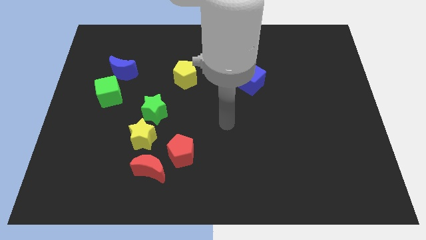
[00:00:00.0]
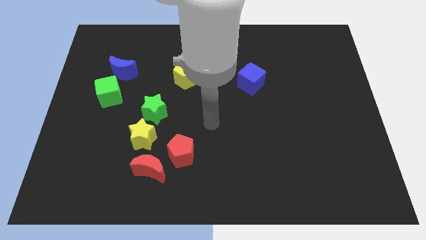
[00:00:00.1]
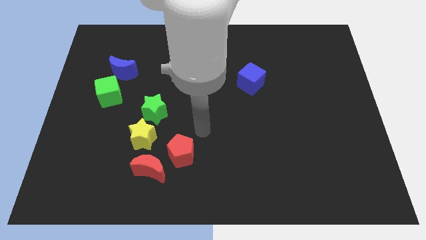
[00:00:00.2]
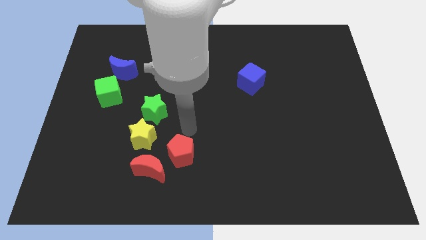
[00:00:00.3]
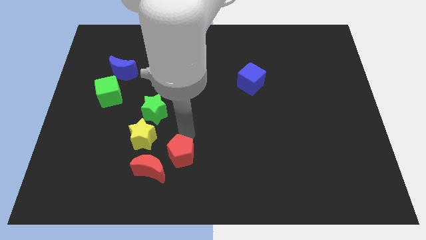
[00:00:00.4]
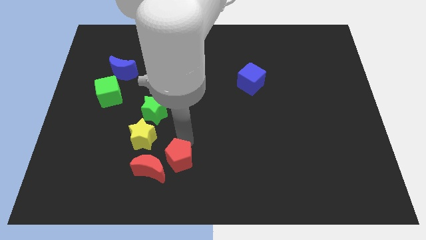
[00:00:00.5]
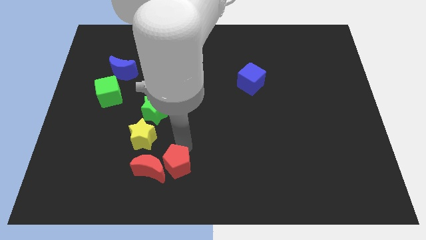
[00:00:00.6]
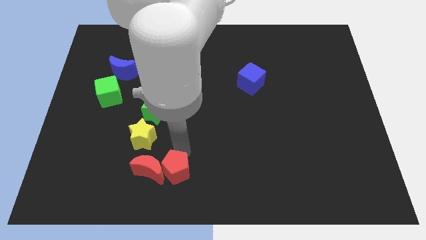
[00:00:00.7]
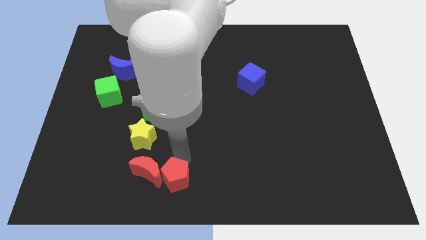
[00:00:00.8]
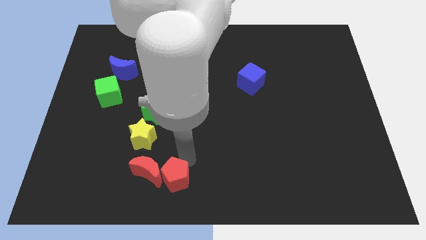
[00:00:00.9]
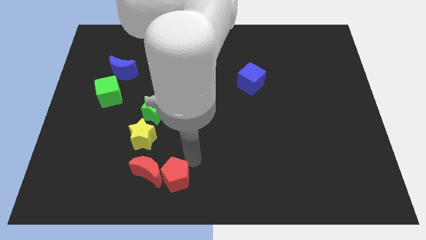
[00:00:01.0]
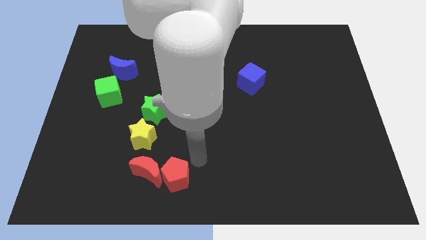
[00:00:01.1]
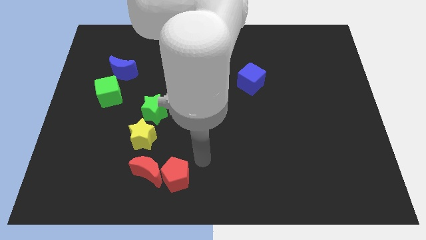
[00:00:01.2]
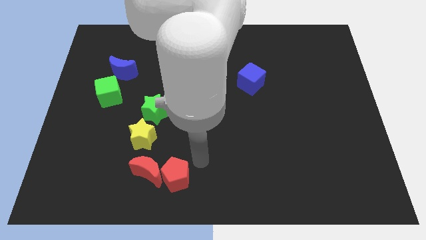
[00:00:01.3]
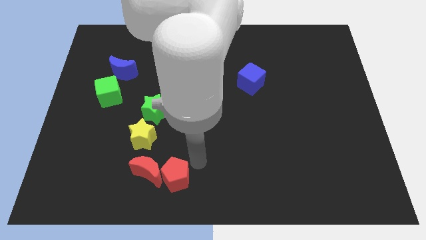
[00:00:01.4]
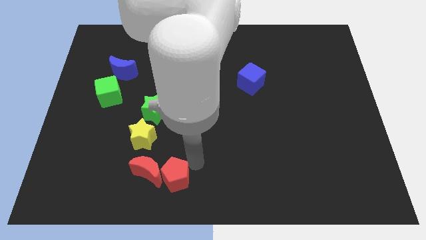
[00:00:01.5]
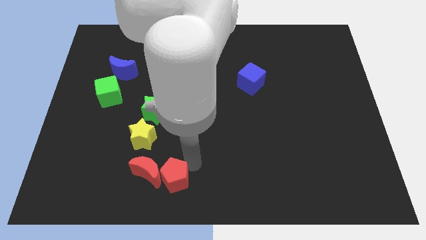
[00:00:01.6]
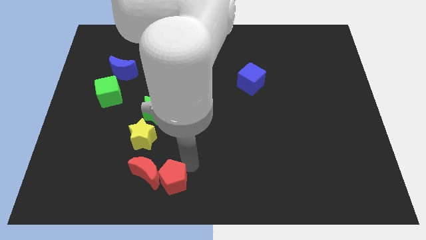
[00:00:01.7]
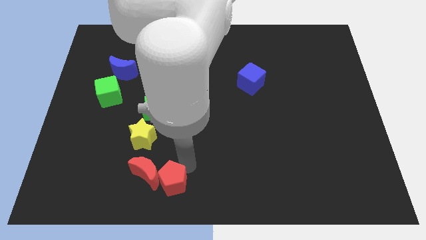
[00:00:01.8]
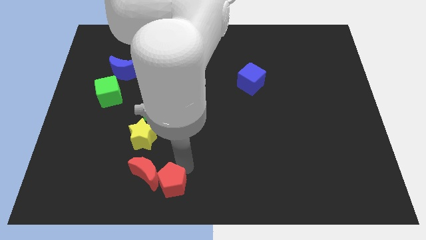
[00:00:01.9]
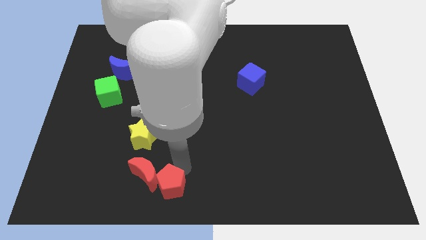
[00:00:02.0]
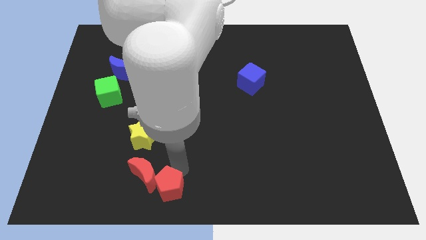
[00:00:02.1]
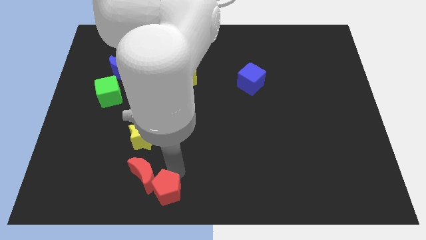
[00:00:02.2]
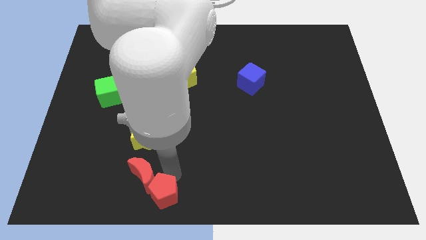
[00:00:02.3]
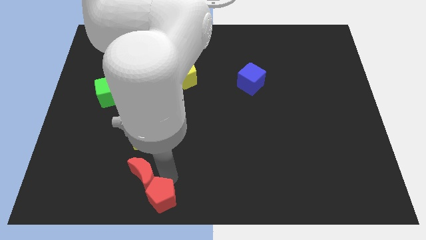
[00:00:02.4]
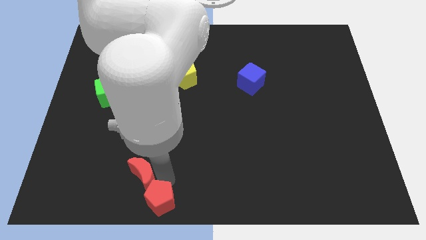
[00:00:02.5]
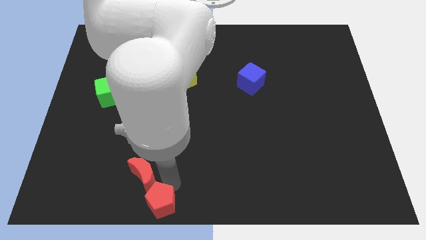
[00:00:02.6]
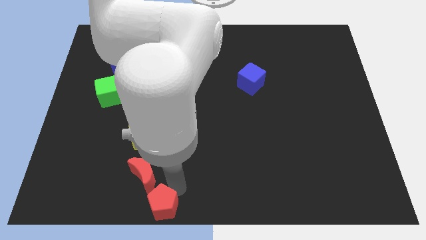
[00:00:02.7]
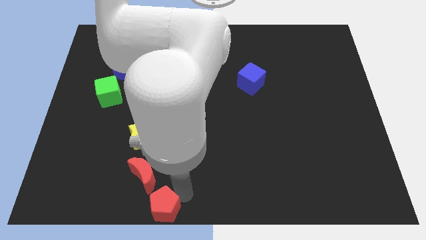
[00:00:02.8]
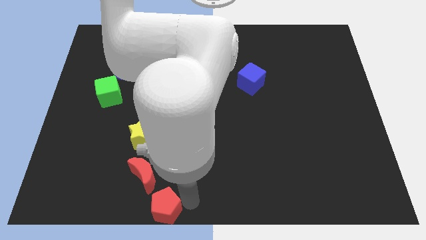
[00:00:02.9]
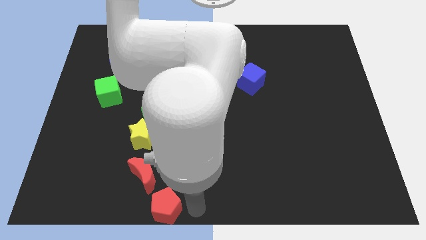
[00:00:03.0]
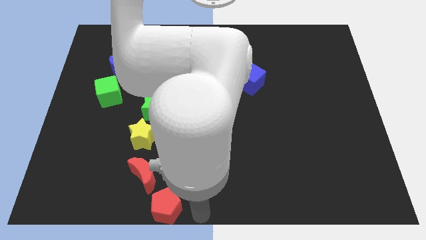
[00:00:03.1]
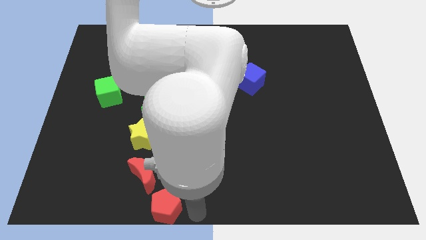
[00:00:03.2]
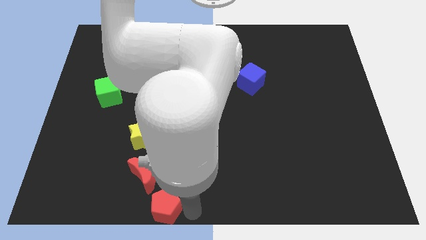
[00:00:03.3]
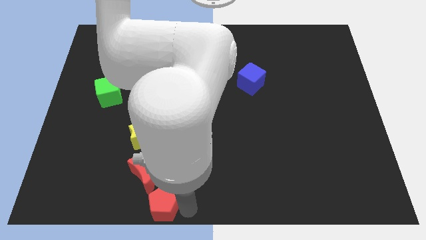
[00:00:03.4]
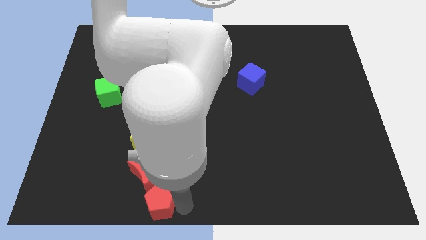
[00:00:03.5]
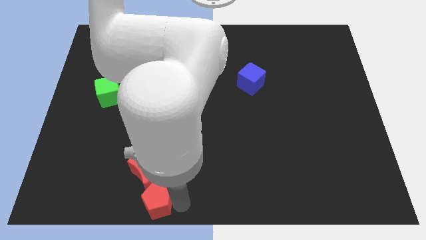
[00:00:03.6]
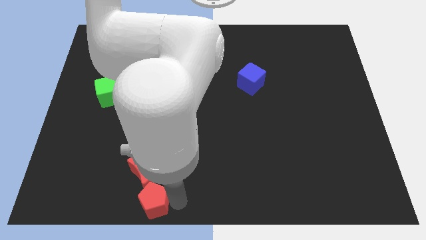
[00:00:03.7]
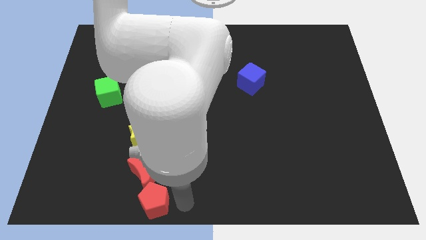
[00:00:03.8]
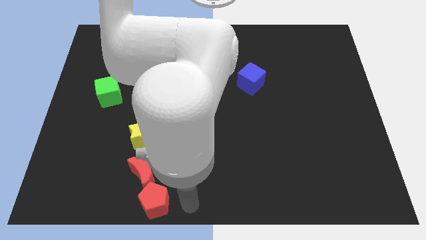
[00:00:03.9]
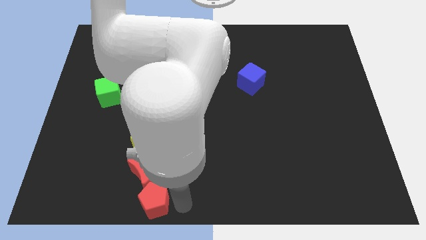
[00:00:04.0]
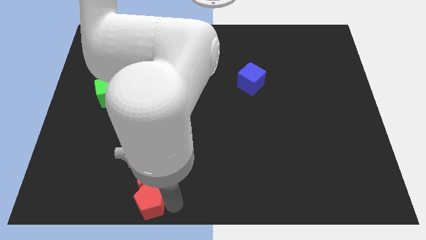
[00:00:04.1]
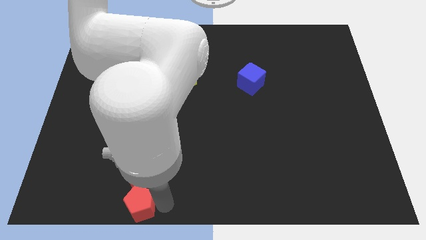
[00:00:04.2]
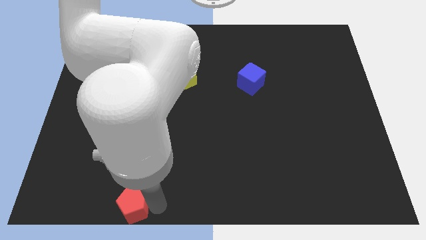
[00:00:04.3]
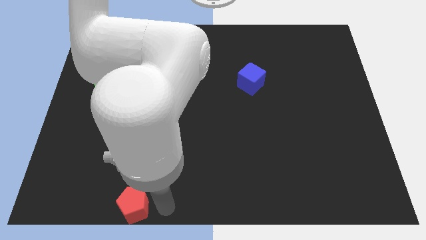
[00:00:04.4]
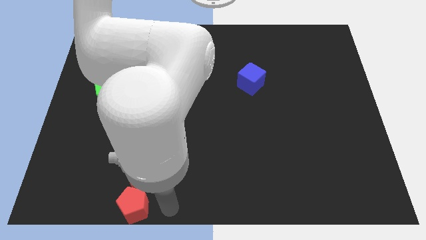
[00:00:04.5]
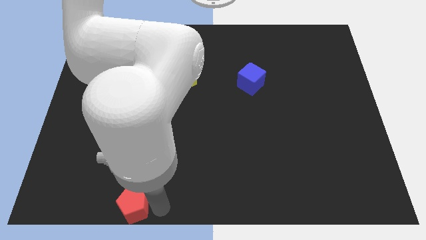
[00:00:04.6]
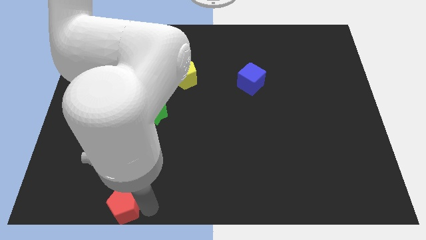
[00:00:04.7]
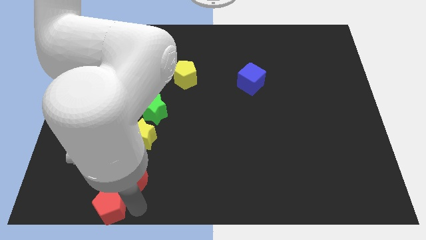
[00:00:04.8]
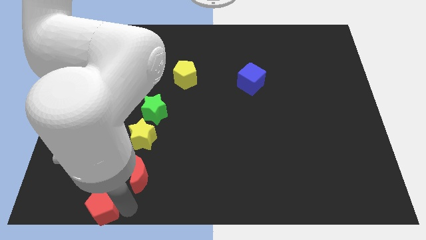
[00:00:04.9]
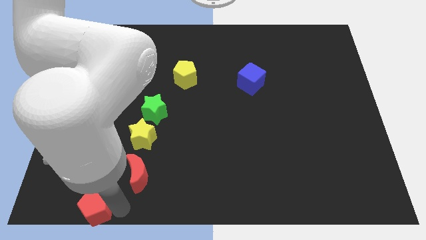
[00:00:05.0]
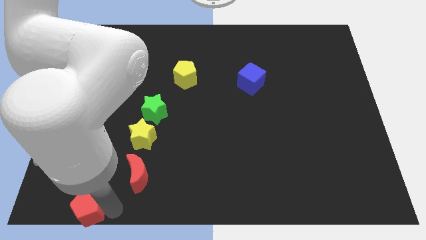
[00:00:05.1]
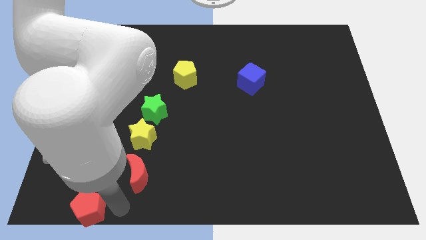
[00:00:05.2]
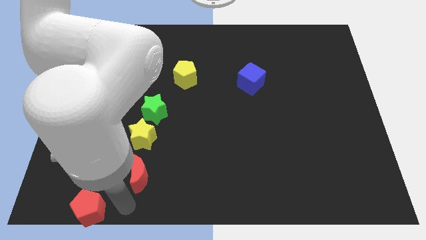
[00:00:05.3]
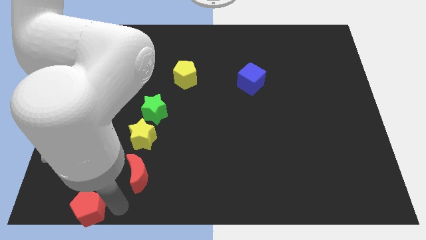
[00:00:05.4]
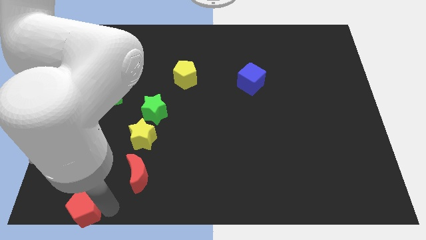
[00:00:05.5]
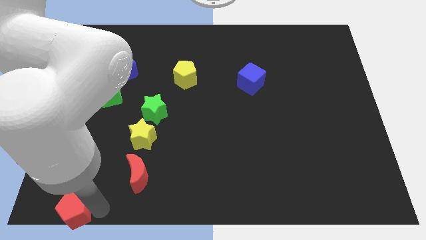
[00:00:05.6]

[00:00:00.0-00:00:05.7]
move the red pentagon to the bottom left of the board
